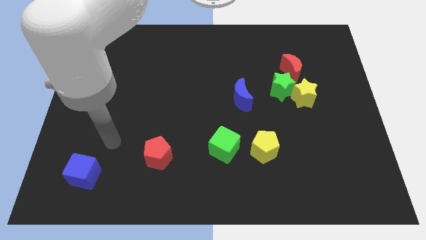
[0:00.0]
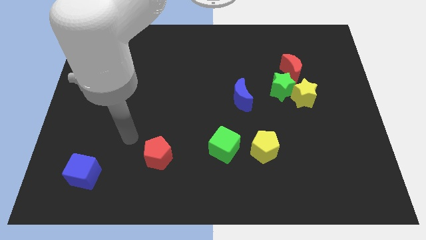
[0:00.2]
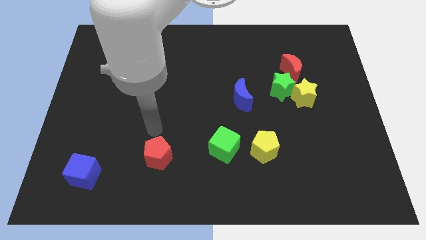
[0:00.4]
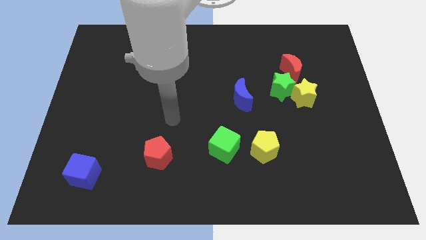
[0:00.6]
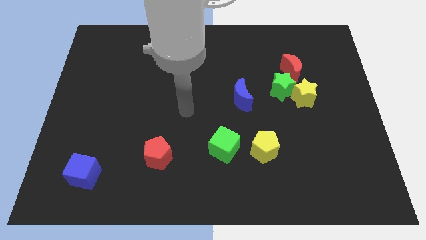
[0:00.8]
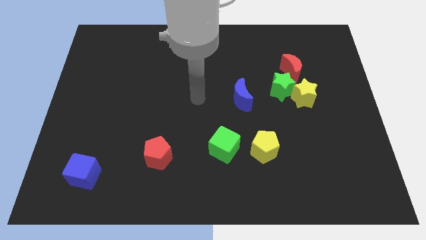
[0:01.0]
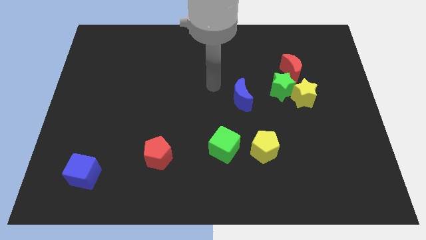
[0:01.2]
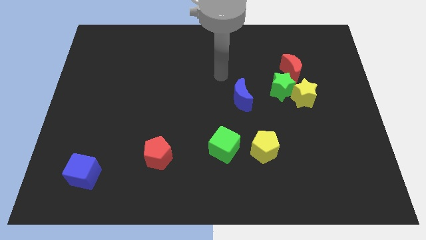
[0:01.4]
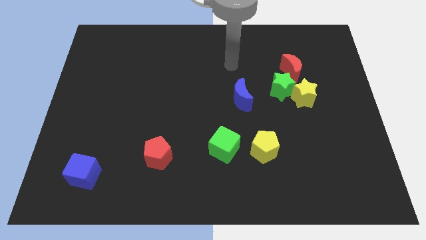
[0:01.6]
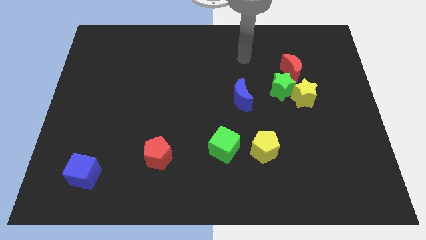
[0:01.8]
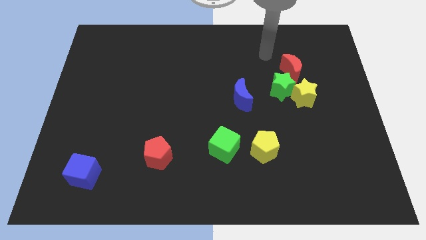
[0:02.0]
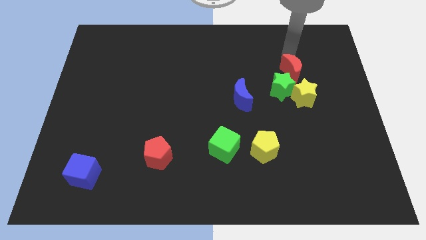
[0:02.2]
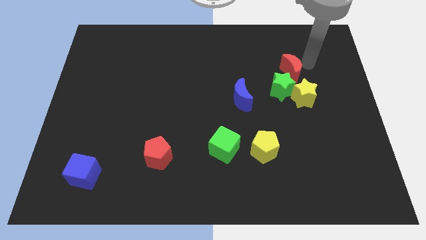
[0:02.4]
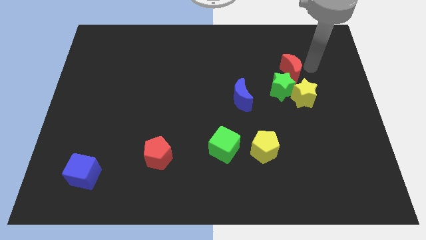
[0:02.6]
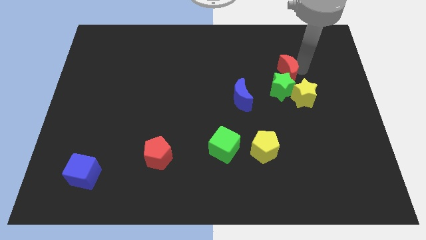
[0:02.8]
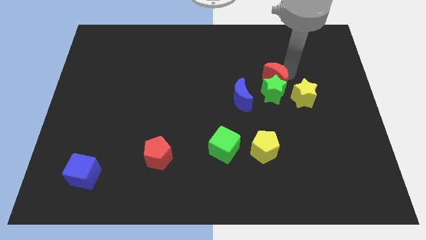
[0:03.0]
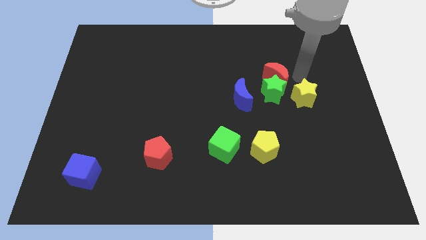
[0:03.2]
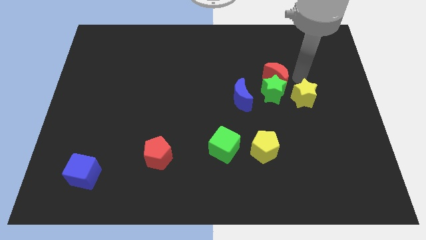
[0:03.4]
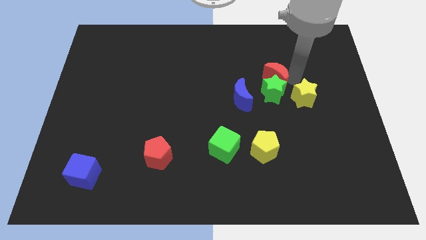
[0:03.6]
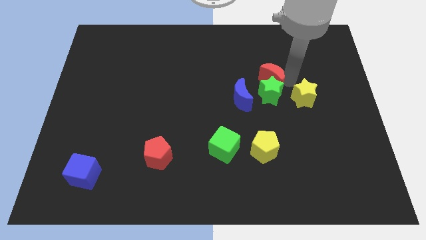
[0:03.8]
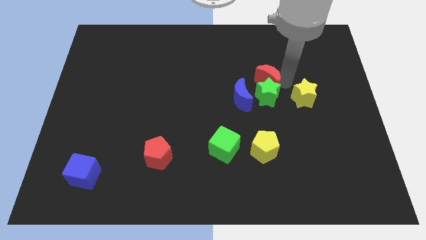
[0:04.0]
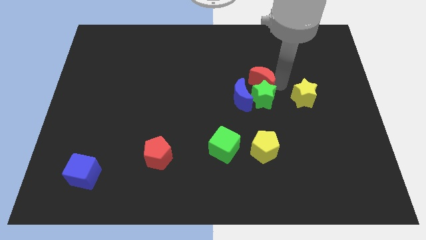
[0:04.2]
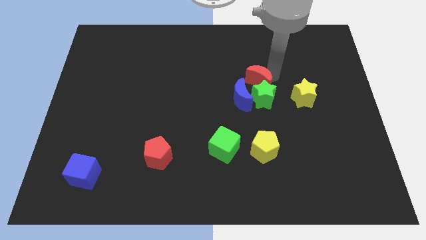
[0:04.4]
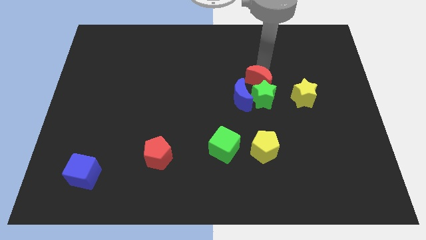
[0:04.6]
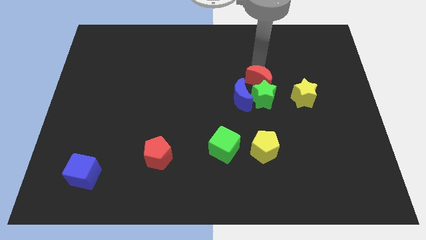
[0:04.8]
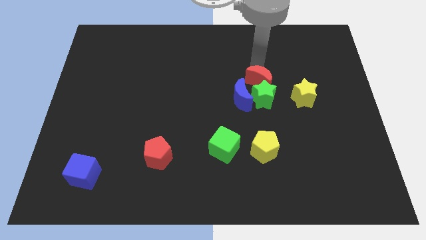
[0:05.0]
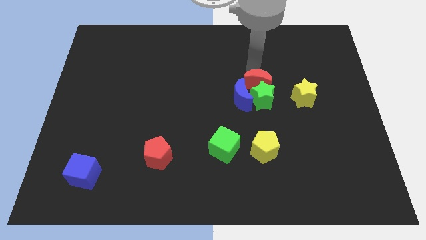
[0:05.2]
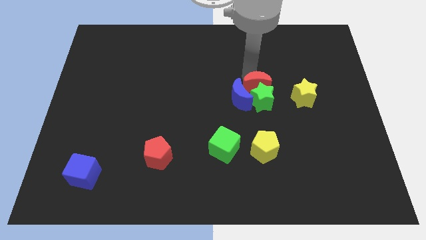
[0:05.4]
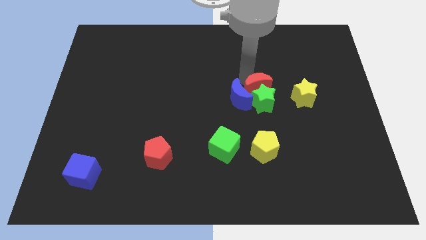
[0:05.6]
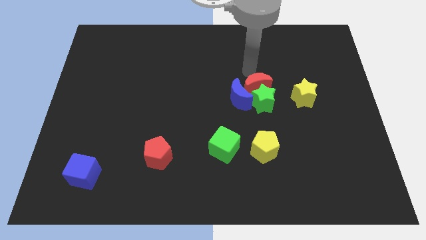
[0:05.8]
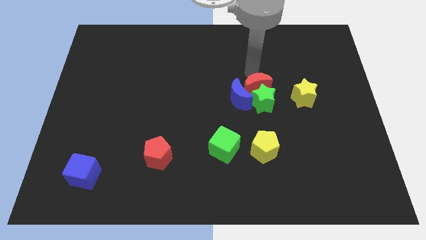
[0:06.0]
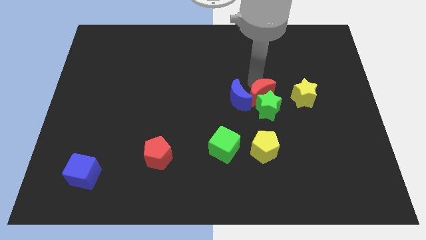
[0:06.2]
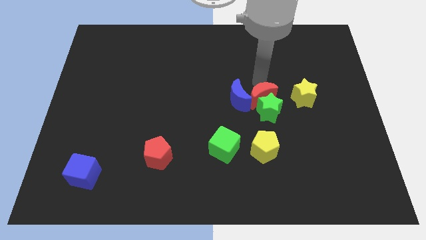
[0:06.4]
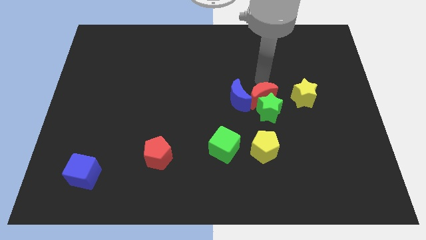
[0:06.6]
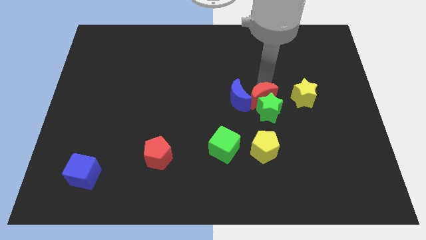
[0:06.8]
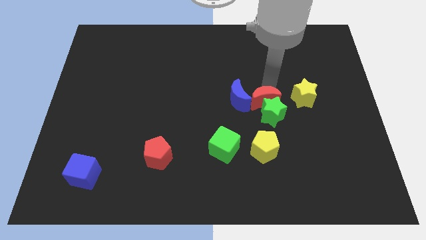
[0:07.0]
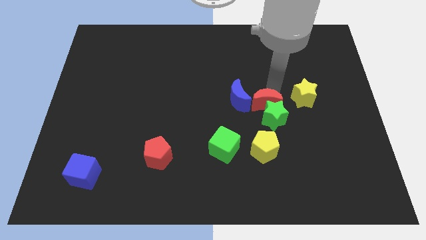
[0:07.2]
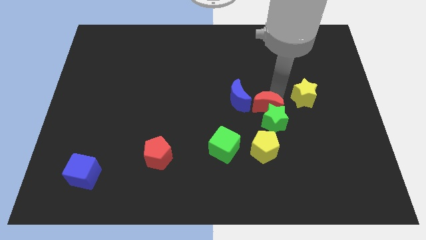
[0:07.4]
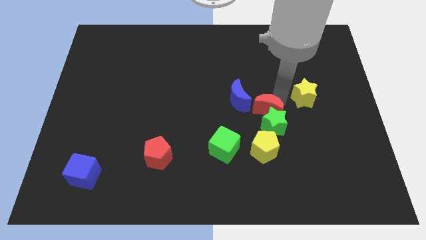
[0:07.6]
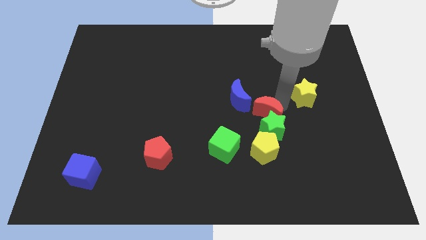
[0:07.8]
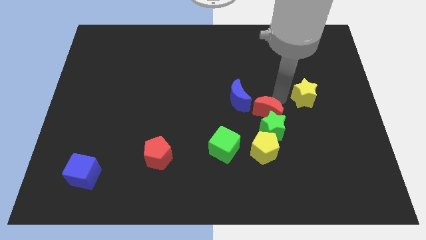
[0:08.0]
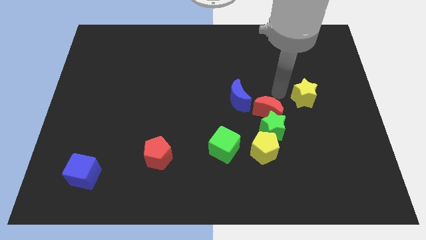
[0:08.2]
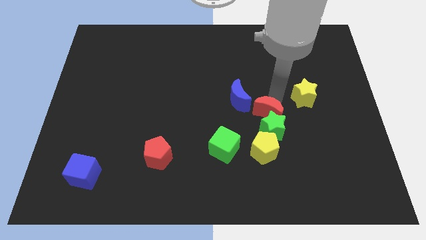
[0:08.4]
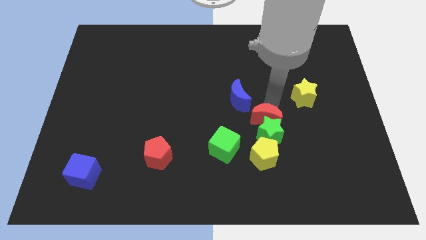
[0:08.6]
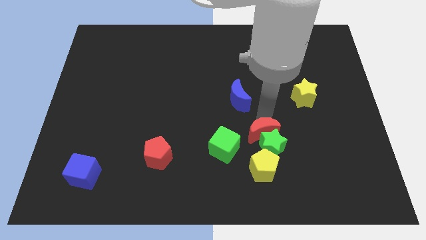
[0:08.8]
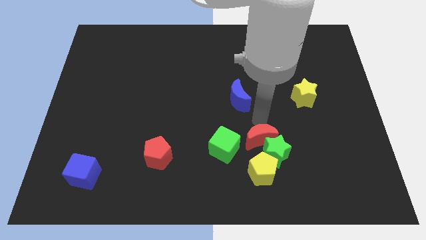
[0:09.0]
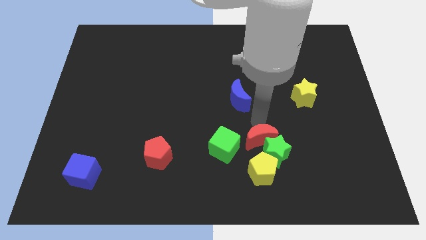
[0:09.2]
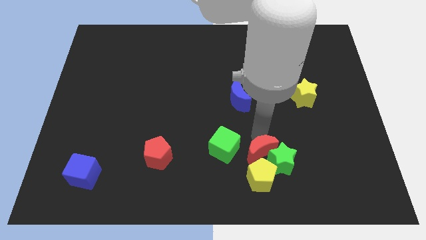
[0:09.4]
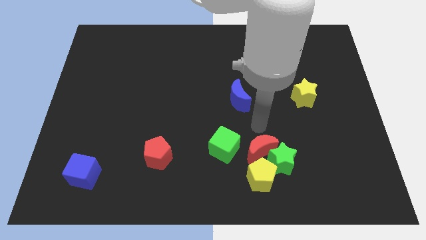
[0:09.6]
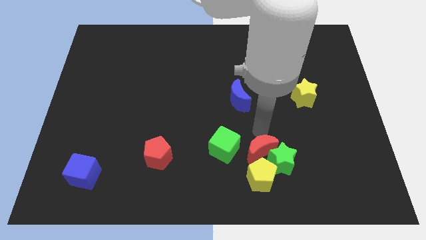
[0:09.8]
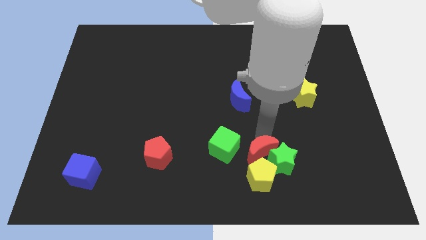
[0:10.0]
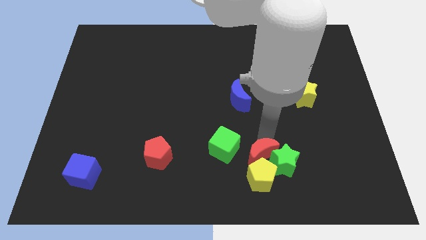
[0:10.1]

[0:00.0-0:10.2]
move the red moon to the yellow pentagon

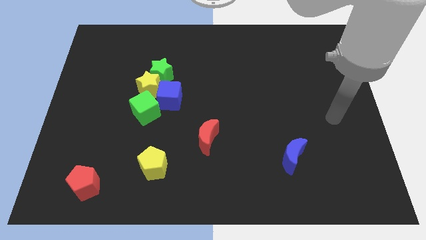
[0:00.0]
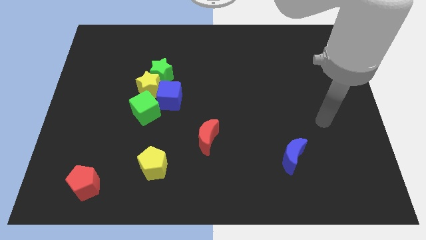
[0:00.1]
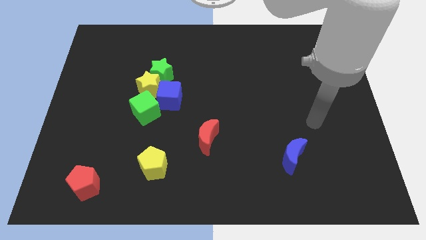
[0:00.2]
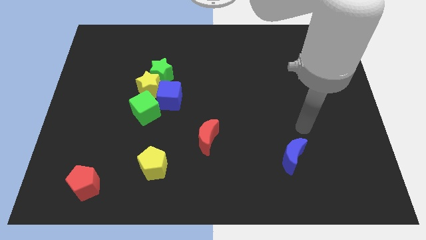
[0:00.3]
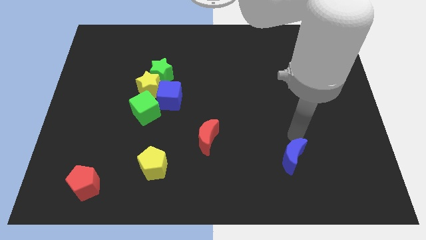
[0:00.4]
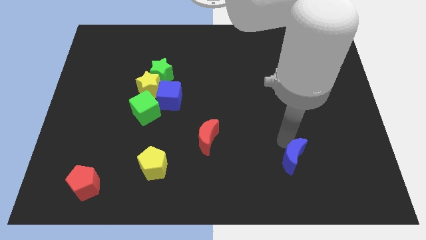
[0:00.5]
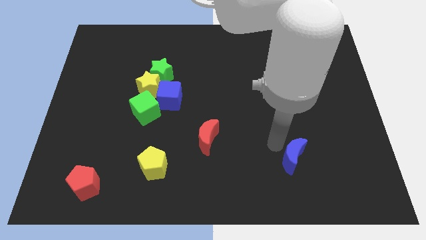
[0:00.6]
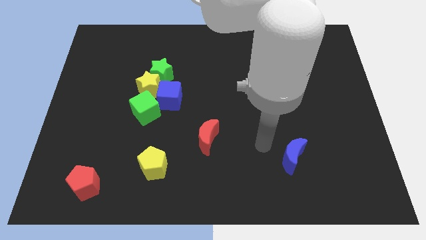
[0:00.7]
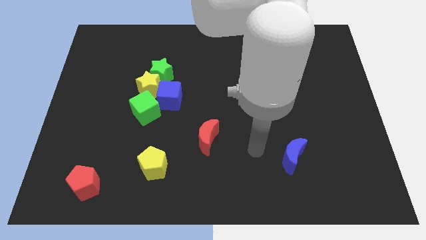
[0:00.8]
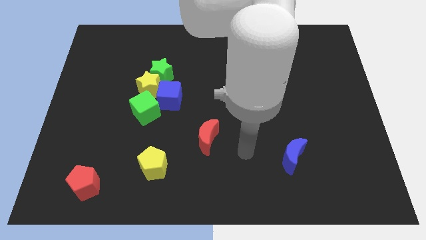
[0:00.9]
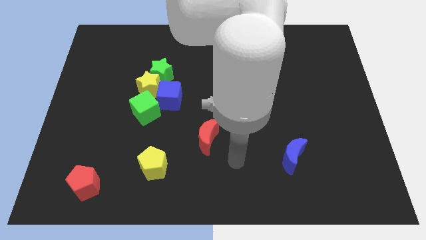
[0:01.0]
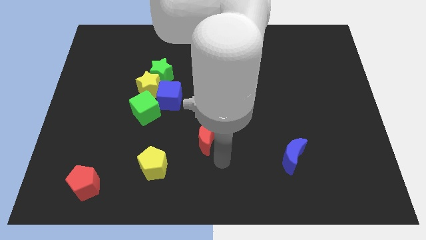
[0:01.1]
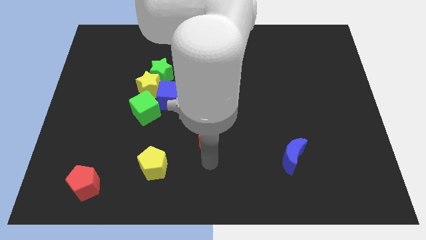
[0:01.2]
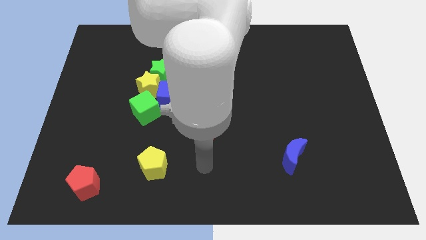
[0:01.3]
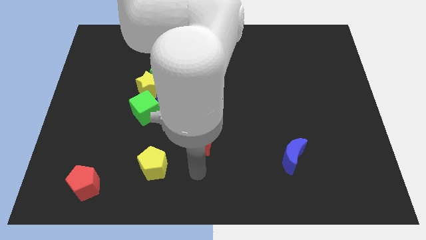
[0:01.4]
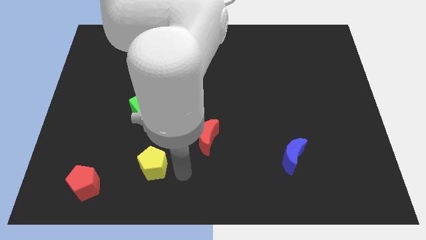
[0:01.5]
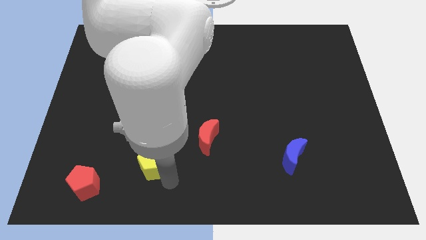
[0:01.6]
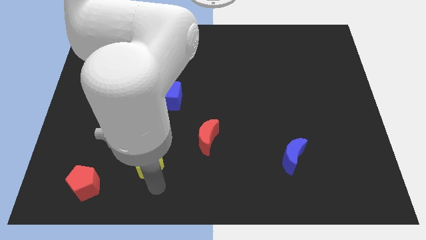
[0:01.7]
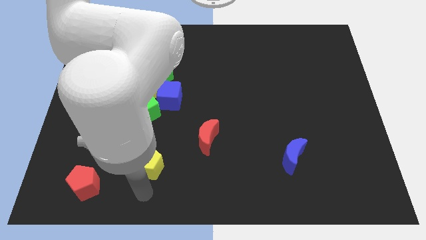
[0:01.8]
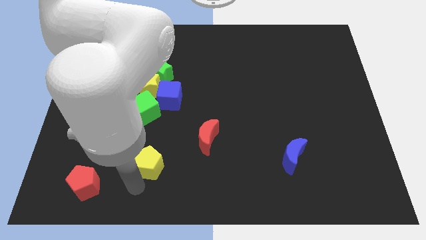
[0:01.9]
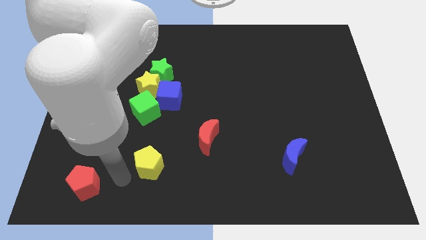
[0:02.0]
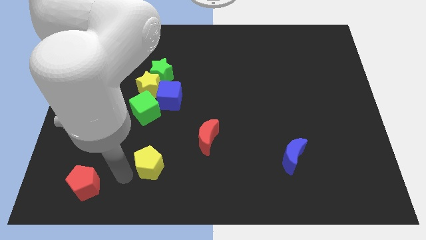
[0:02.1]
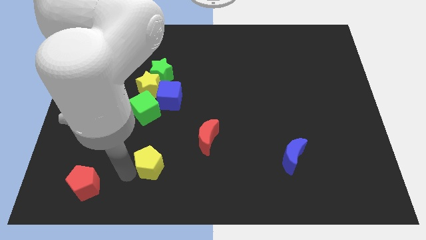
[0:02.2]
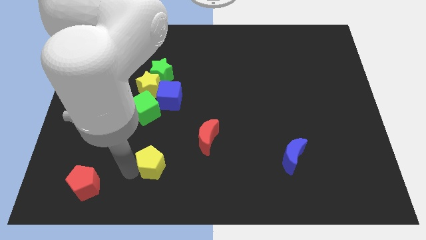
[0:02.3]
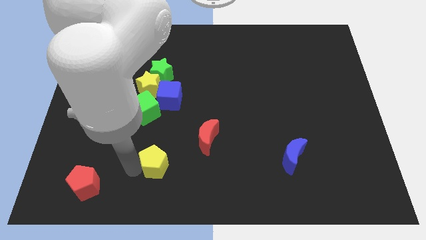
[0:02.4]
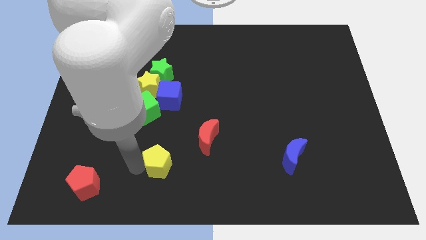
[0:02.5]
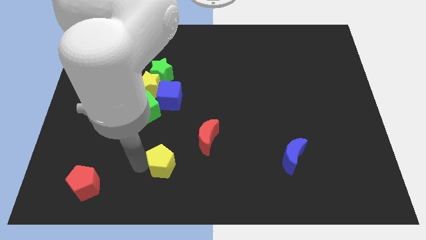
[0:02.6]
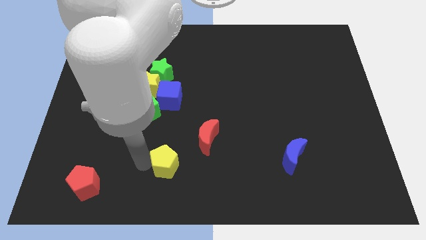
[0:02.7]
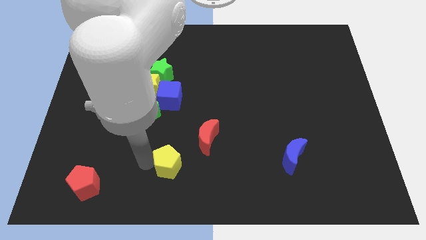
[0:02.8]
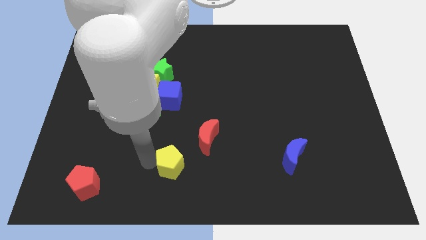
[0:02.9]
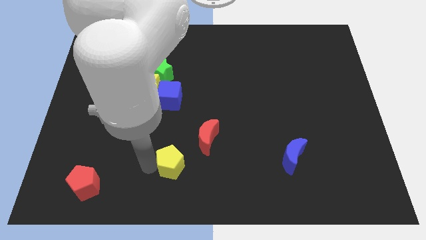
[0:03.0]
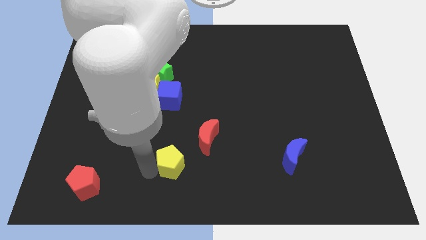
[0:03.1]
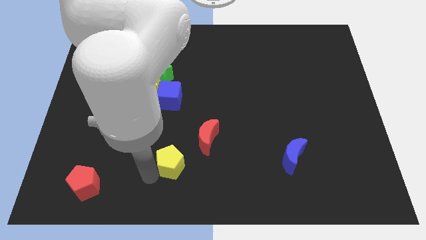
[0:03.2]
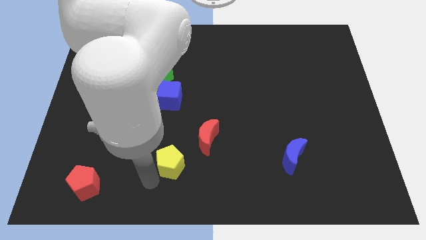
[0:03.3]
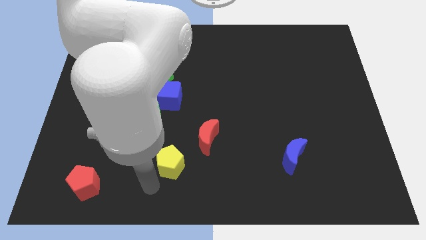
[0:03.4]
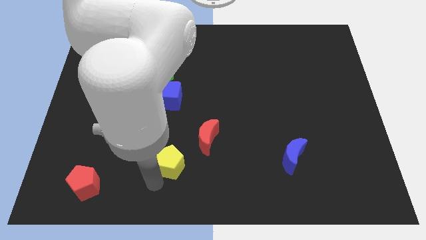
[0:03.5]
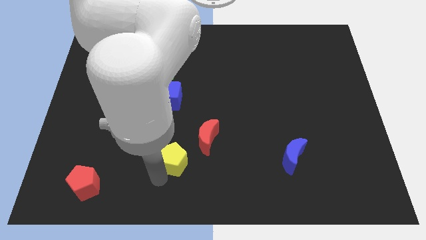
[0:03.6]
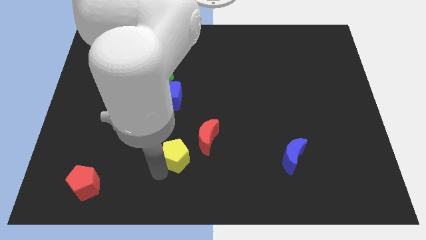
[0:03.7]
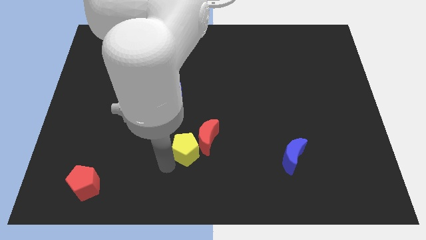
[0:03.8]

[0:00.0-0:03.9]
move the yellow pentagon towards the red moon
